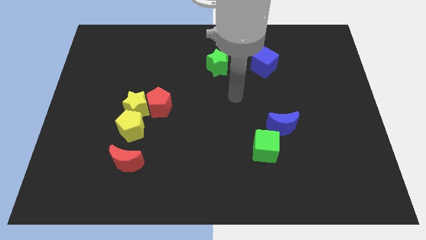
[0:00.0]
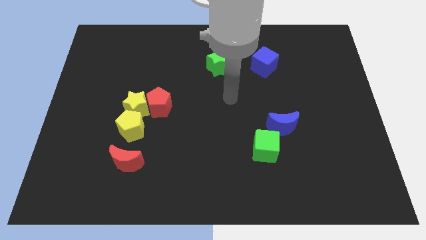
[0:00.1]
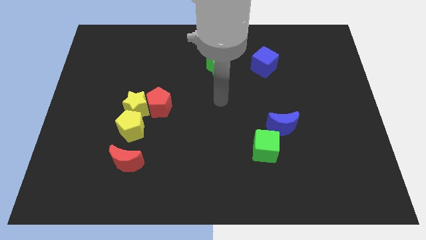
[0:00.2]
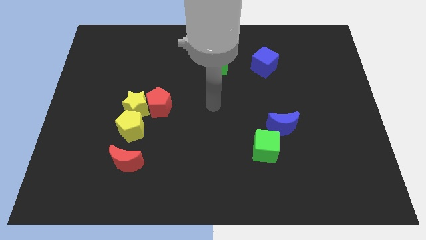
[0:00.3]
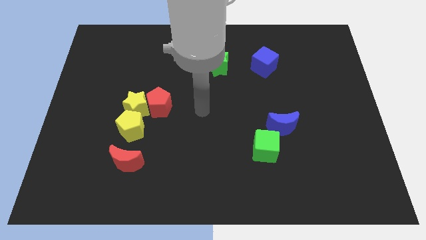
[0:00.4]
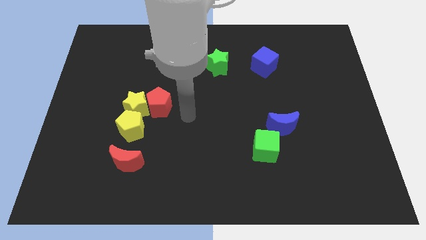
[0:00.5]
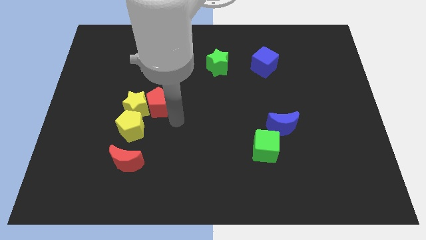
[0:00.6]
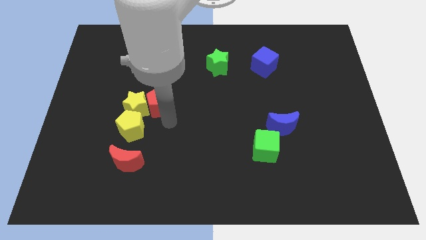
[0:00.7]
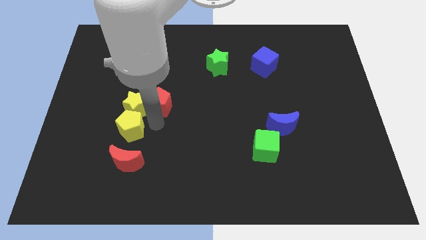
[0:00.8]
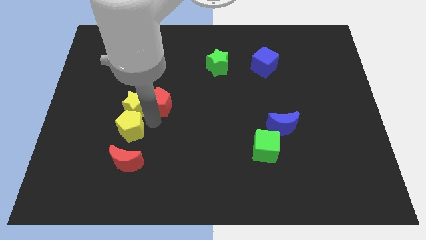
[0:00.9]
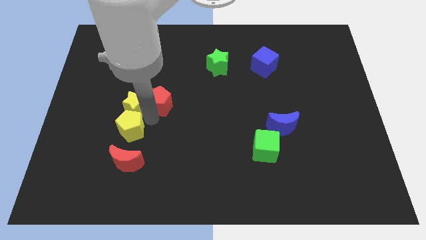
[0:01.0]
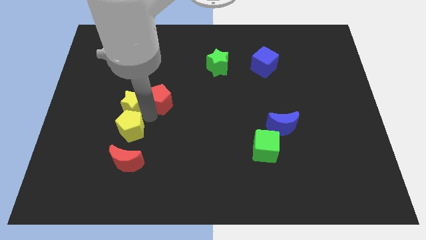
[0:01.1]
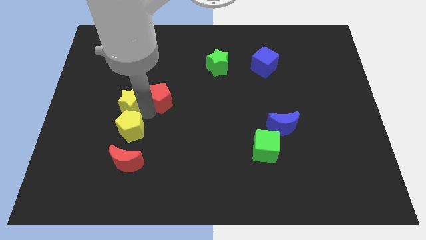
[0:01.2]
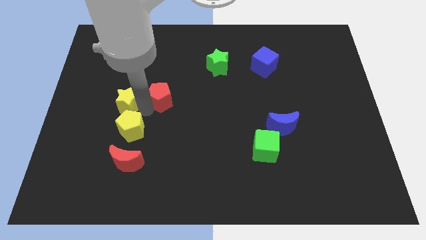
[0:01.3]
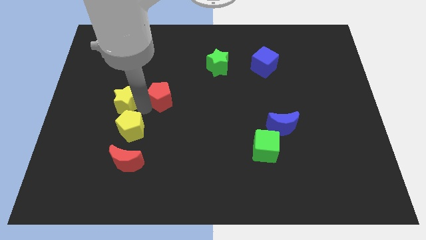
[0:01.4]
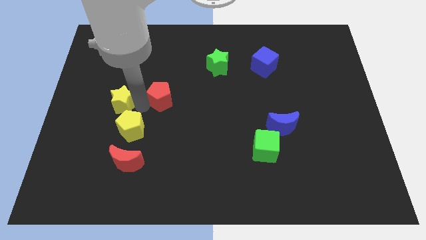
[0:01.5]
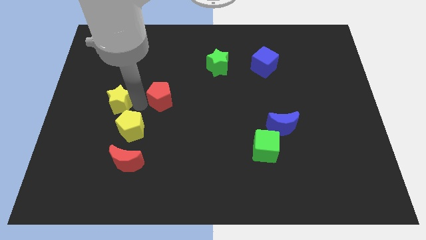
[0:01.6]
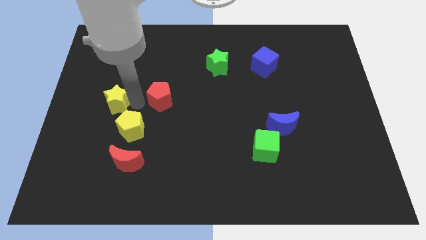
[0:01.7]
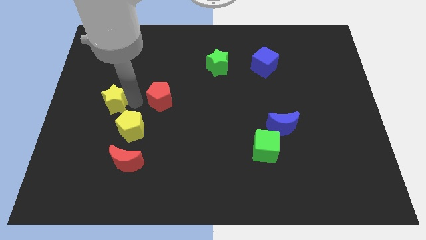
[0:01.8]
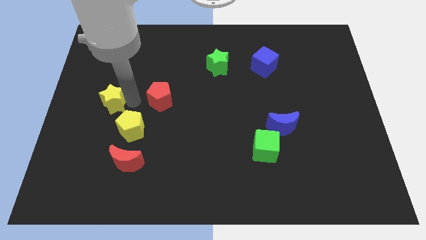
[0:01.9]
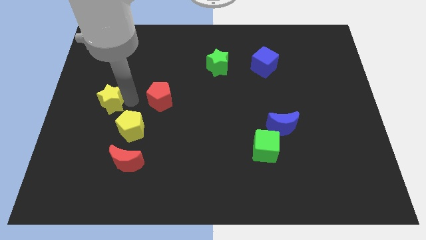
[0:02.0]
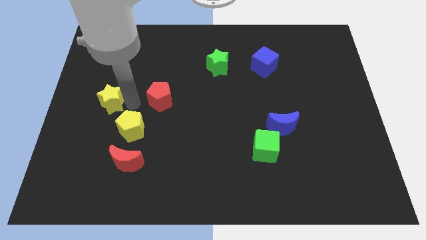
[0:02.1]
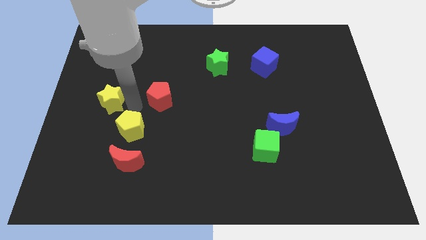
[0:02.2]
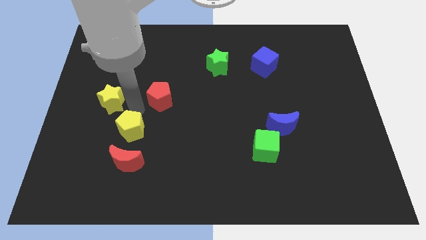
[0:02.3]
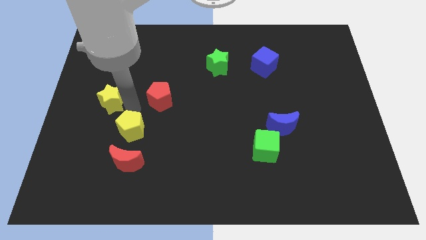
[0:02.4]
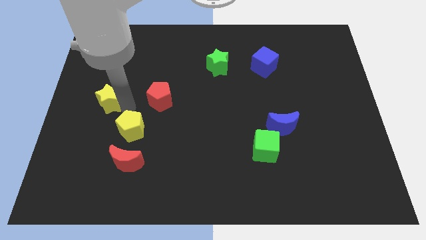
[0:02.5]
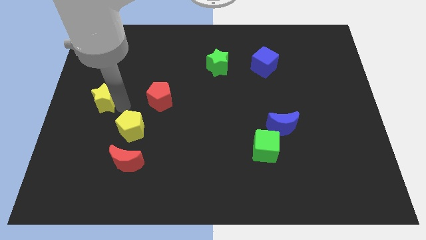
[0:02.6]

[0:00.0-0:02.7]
separate the yellow star from the red pentagon and yellow pentagon

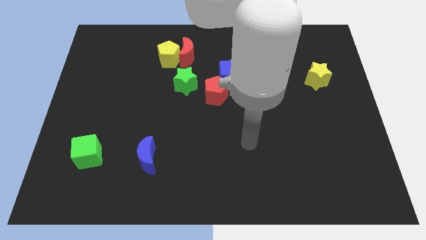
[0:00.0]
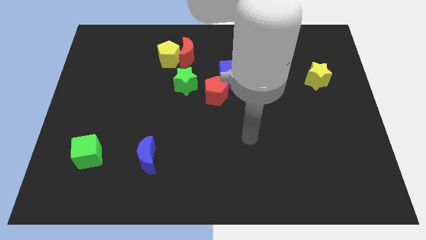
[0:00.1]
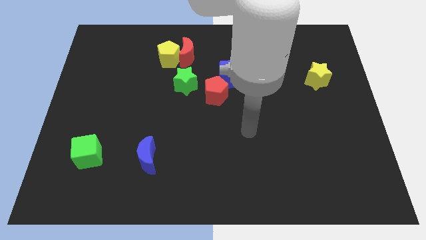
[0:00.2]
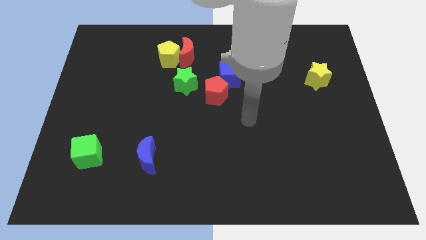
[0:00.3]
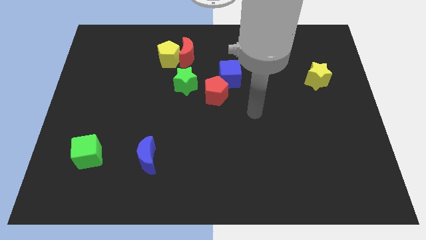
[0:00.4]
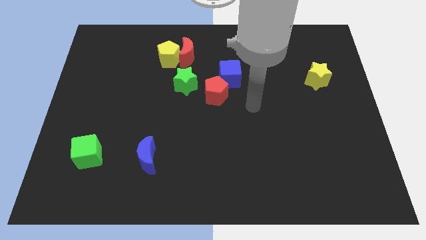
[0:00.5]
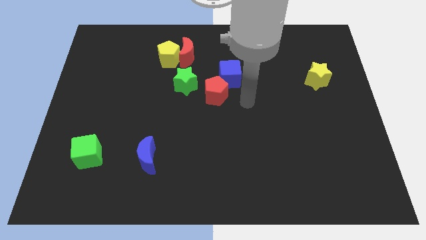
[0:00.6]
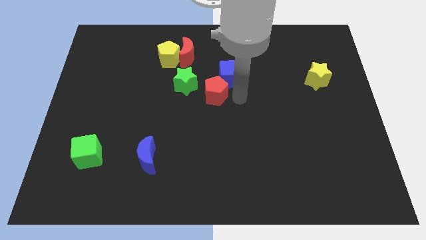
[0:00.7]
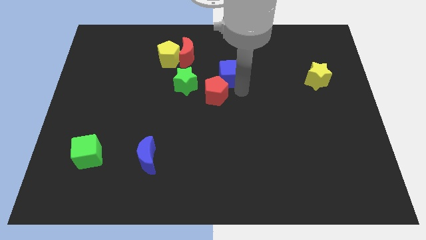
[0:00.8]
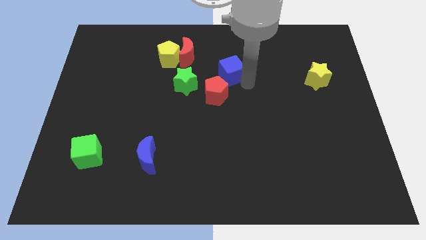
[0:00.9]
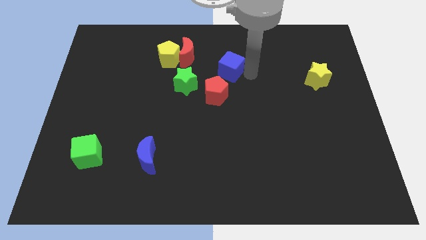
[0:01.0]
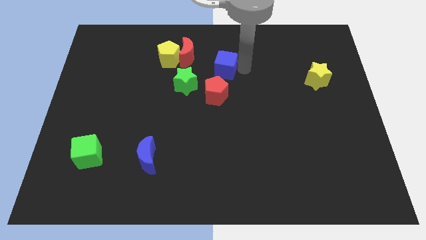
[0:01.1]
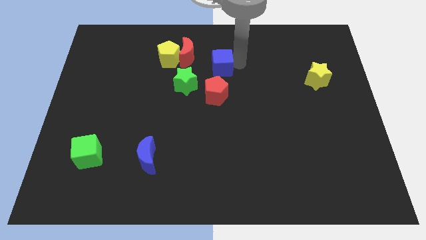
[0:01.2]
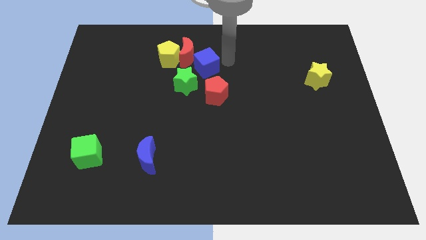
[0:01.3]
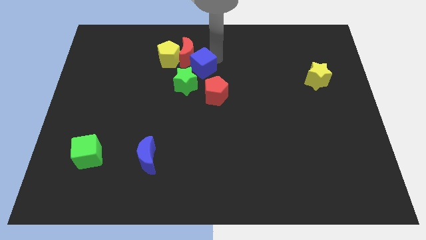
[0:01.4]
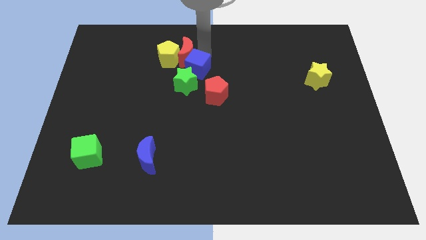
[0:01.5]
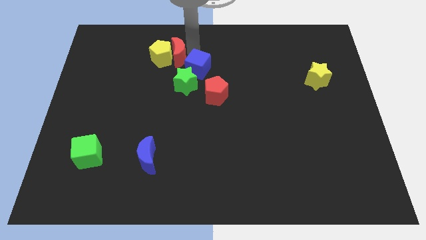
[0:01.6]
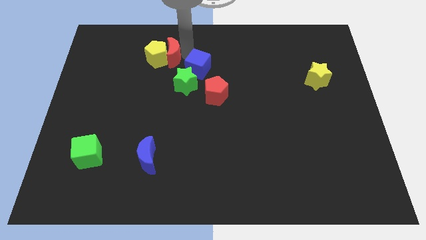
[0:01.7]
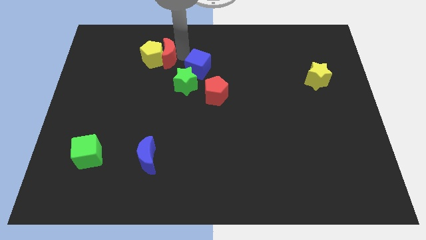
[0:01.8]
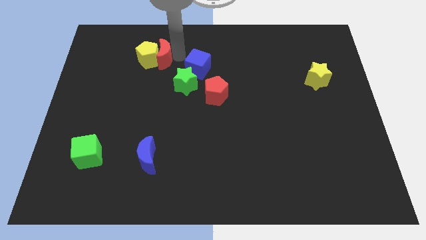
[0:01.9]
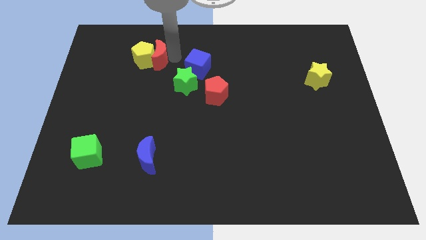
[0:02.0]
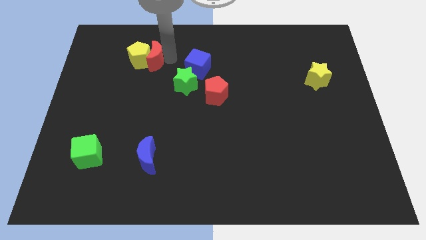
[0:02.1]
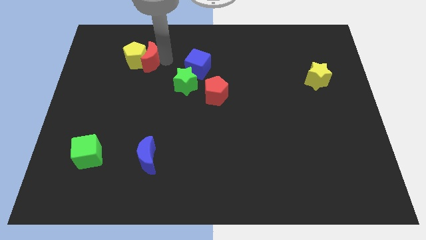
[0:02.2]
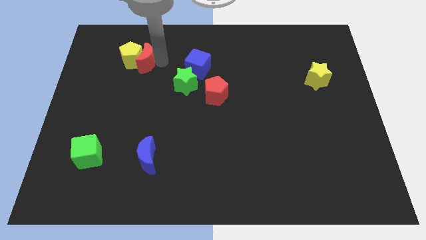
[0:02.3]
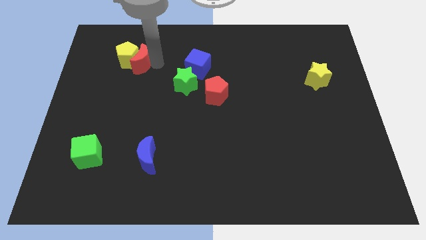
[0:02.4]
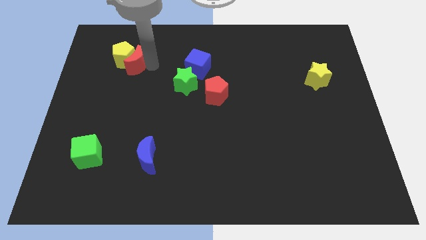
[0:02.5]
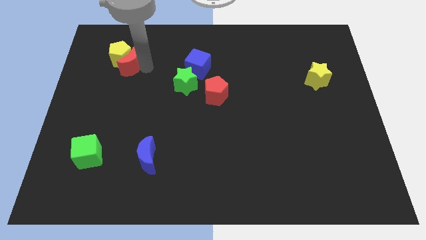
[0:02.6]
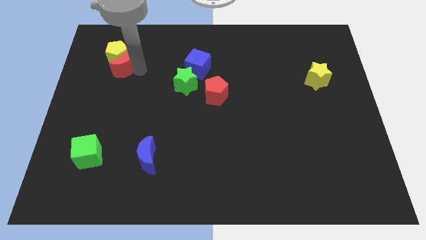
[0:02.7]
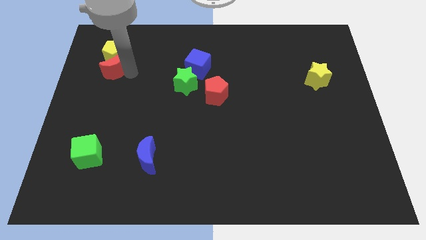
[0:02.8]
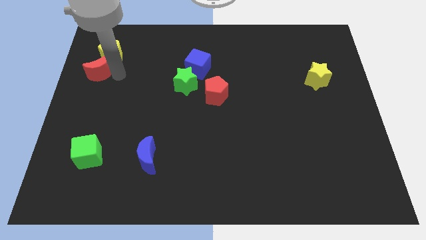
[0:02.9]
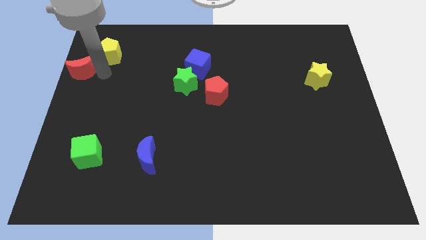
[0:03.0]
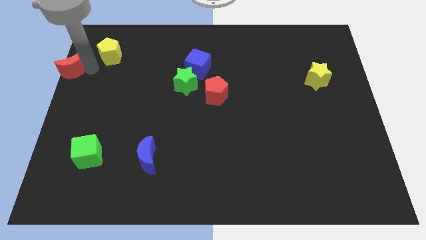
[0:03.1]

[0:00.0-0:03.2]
move the yellow pentagon away from the red moon

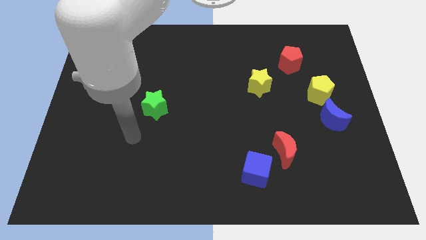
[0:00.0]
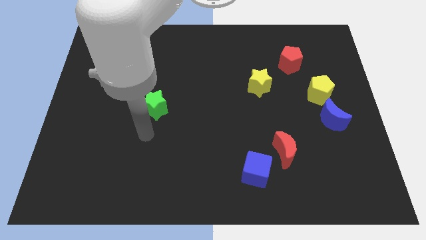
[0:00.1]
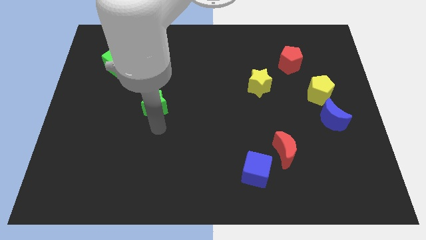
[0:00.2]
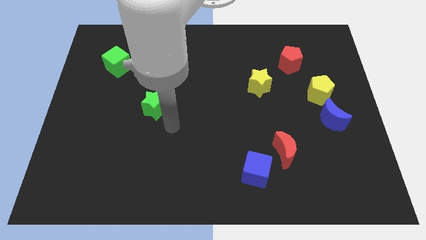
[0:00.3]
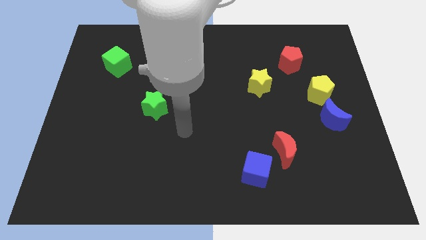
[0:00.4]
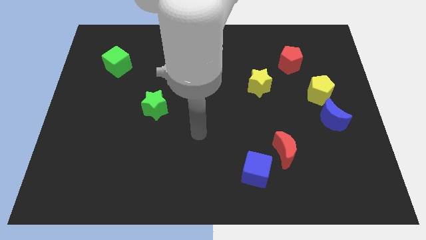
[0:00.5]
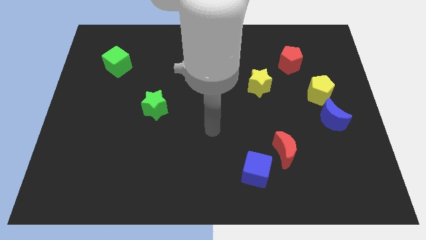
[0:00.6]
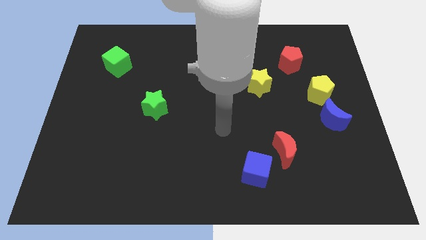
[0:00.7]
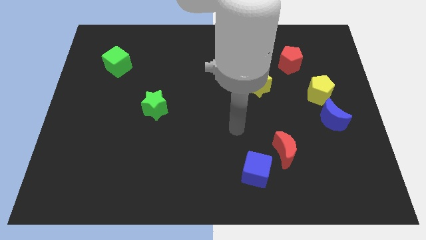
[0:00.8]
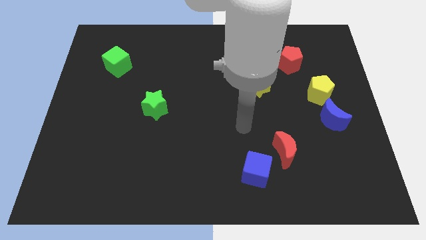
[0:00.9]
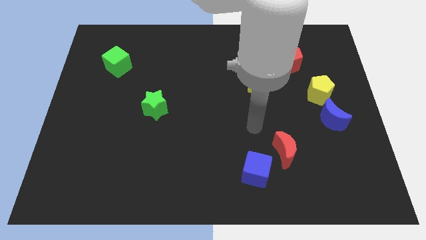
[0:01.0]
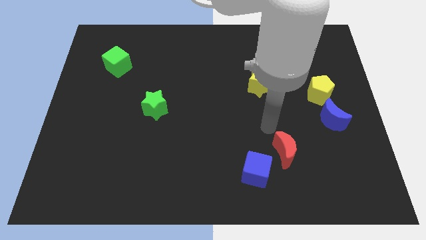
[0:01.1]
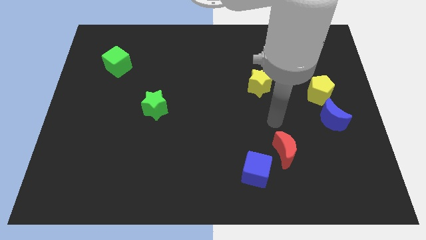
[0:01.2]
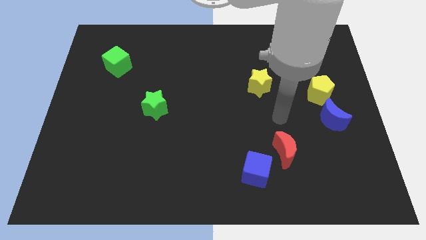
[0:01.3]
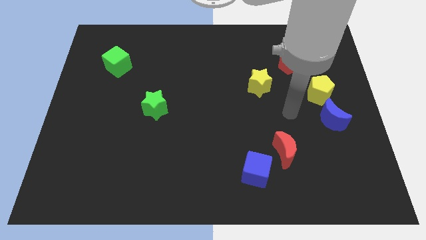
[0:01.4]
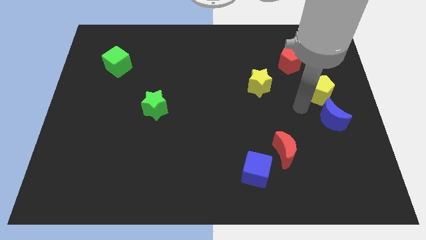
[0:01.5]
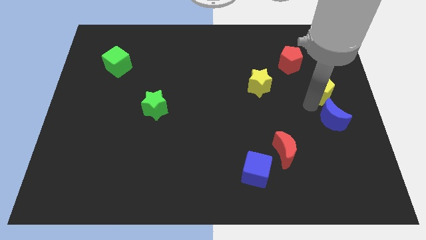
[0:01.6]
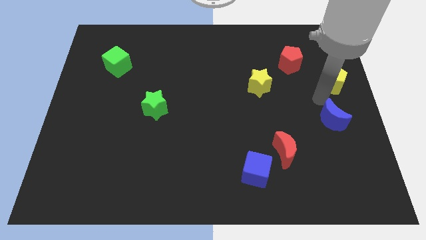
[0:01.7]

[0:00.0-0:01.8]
pull the blue moon apart from the yellow pentagon

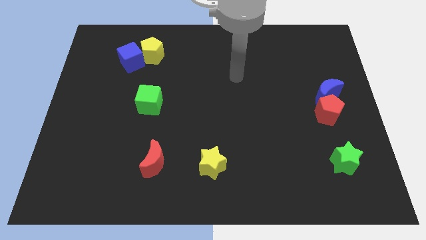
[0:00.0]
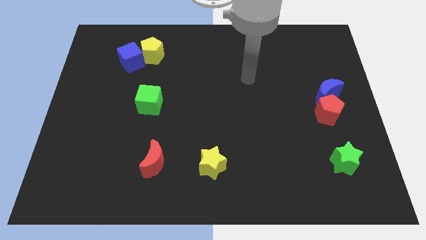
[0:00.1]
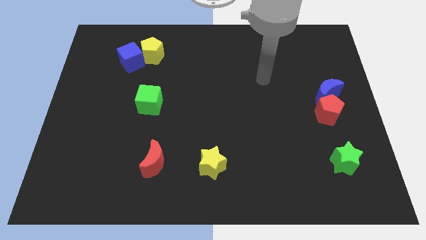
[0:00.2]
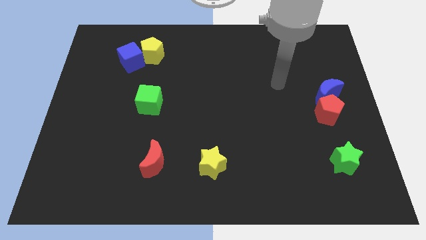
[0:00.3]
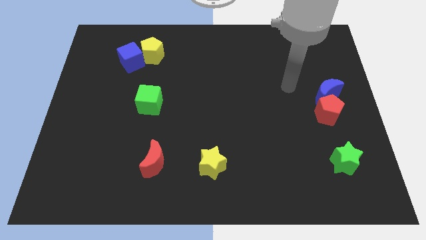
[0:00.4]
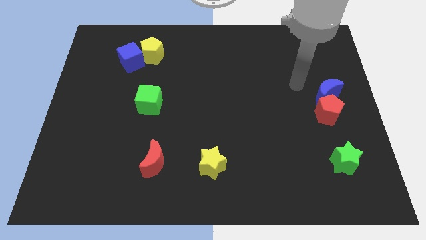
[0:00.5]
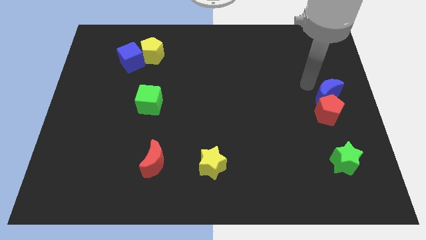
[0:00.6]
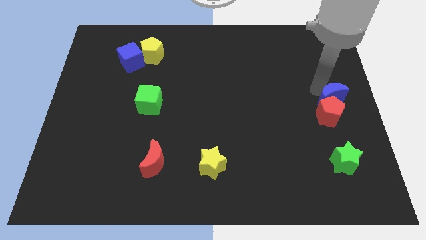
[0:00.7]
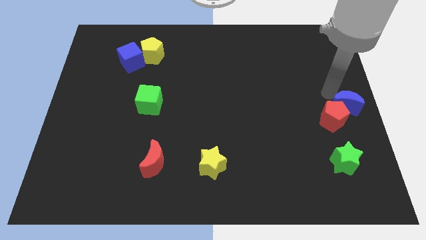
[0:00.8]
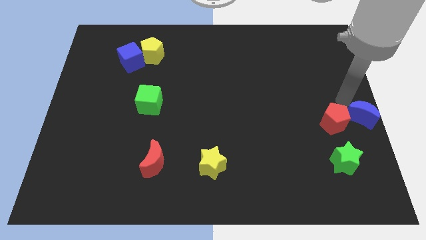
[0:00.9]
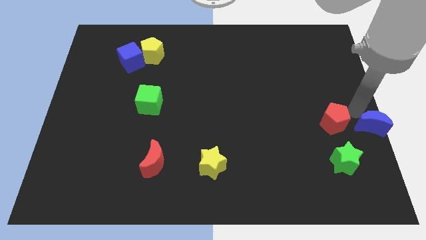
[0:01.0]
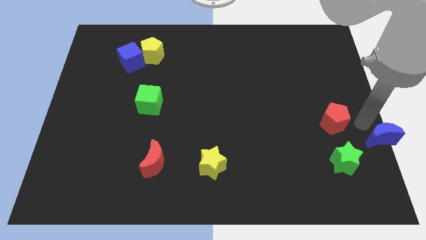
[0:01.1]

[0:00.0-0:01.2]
separate the red pentagon from the blue moon

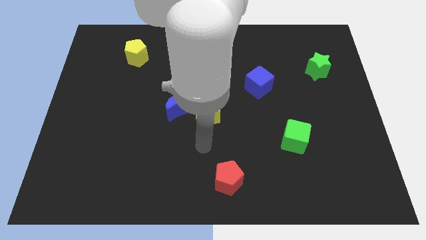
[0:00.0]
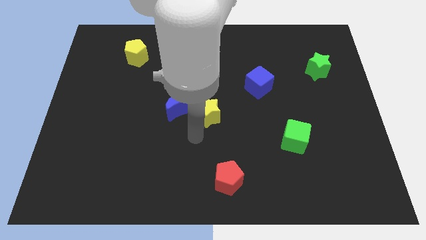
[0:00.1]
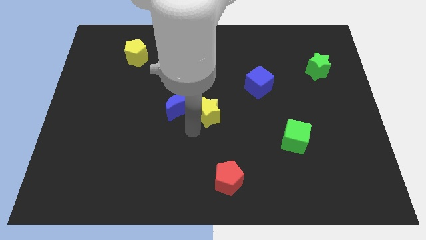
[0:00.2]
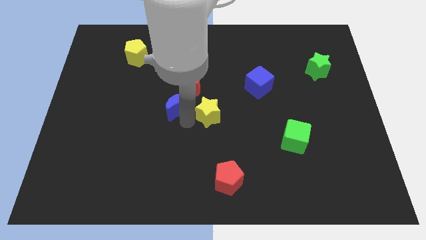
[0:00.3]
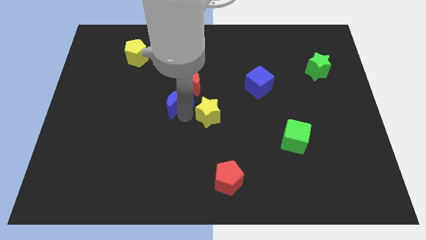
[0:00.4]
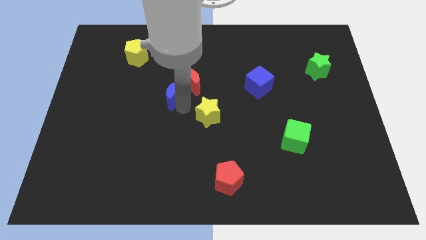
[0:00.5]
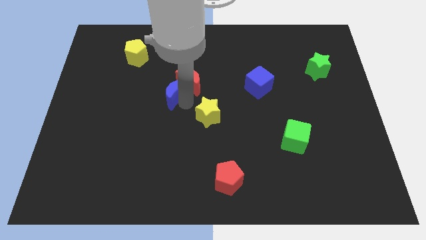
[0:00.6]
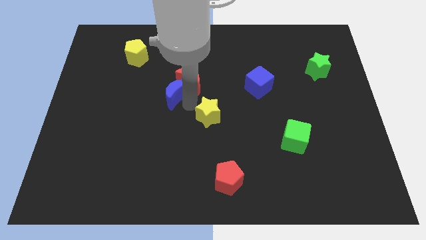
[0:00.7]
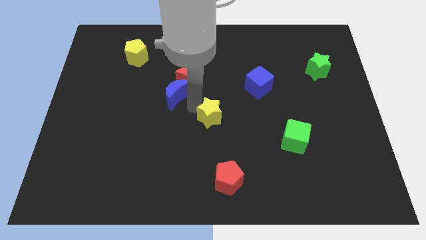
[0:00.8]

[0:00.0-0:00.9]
pull the yellow star apart from the blue moon
